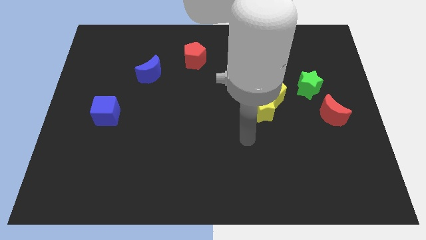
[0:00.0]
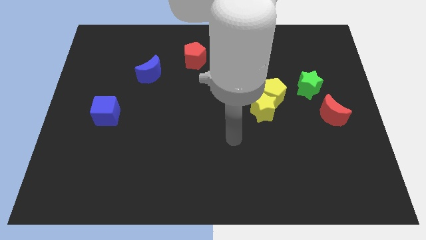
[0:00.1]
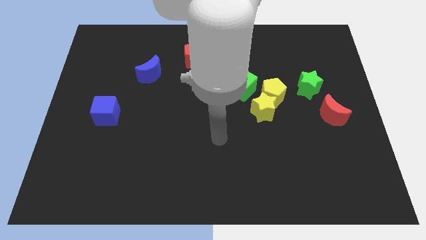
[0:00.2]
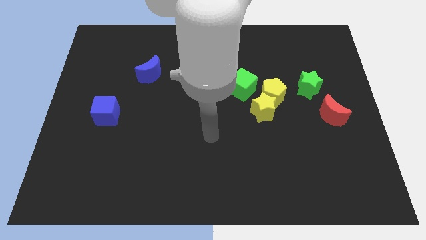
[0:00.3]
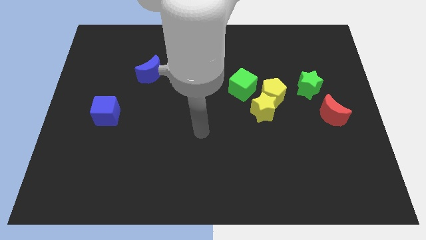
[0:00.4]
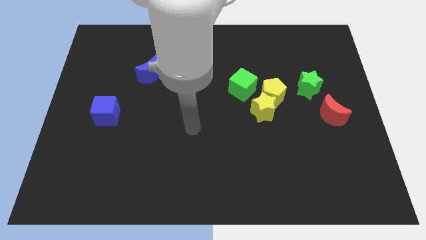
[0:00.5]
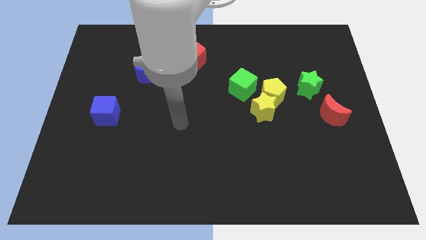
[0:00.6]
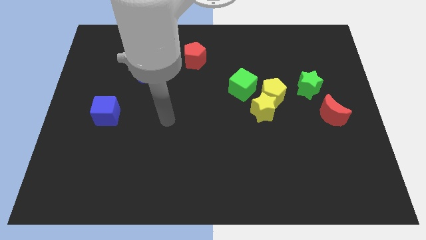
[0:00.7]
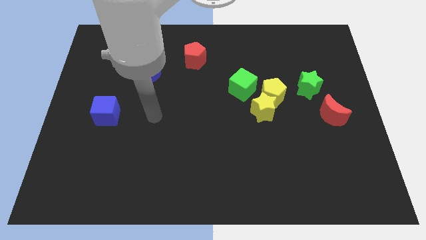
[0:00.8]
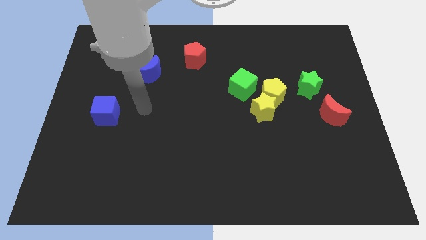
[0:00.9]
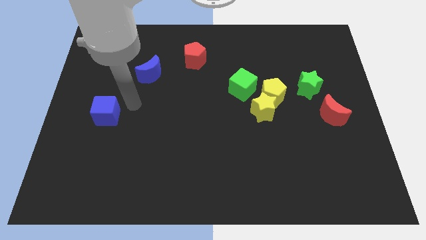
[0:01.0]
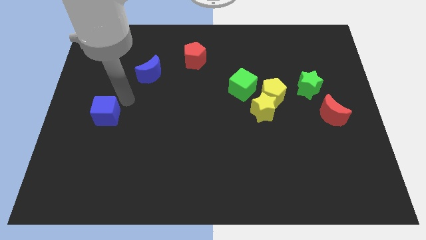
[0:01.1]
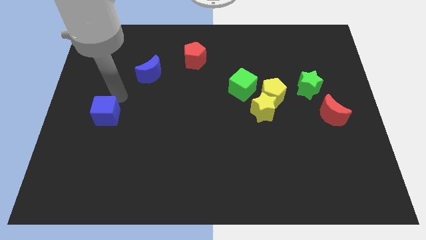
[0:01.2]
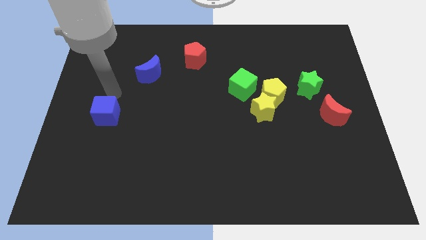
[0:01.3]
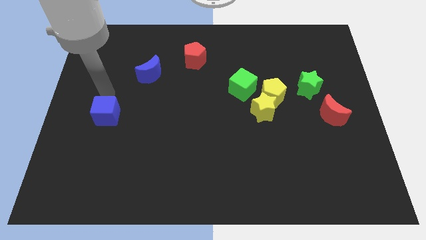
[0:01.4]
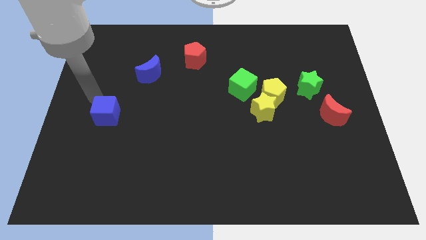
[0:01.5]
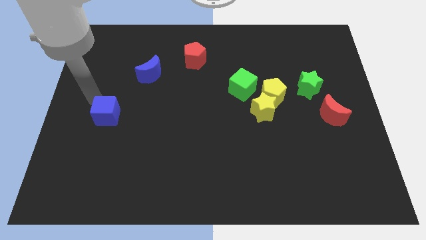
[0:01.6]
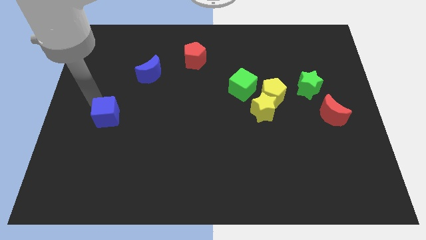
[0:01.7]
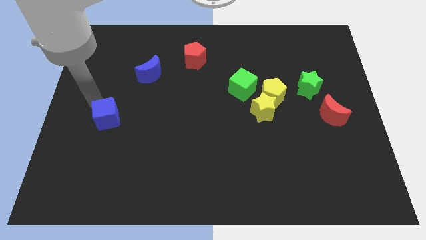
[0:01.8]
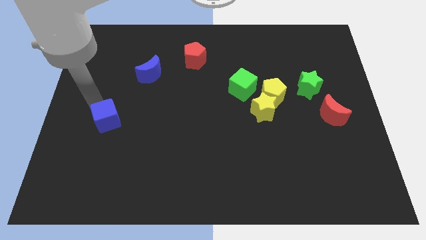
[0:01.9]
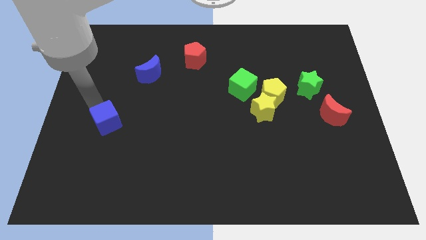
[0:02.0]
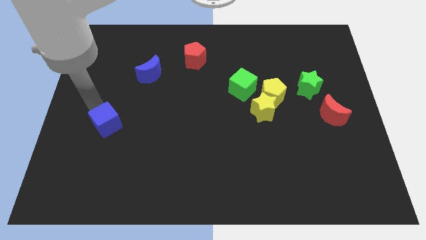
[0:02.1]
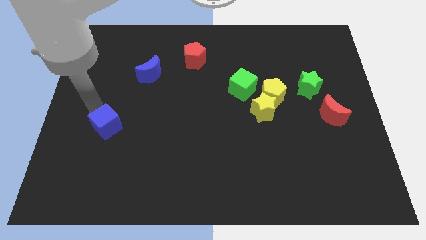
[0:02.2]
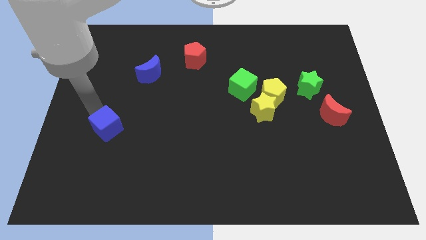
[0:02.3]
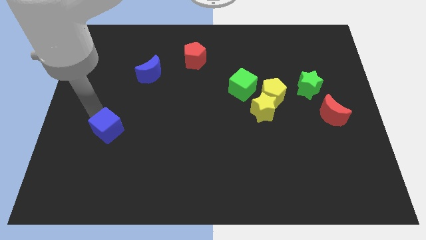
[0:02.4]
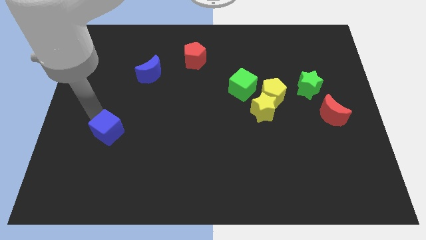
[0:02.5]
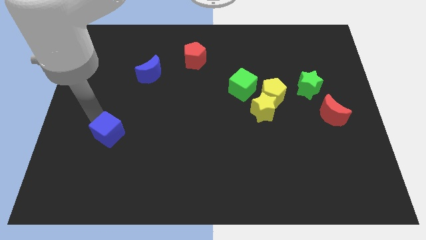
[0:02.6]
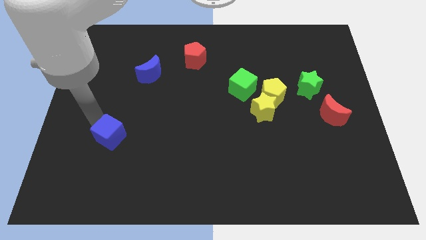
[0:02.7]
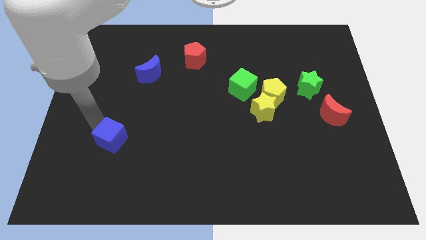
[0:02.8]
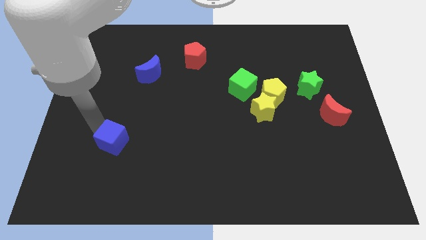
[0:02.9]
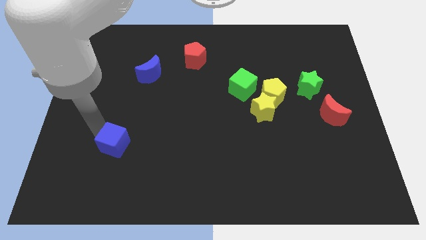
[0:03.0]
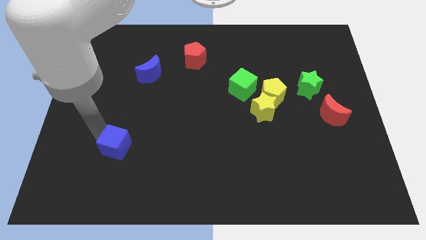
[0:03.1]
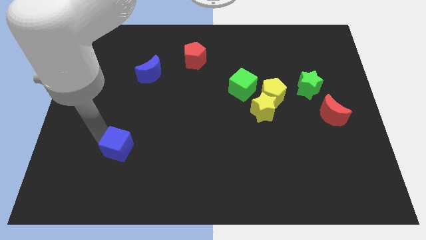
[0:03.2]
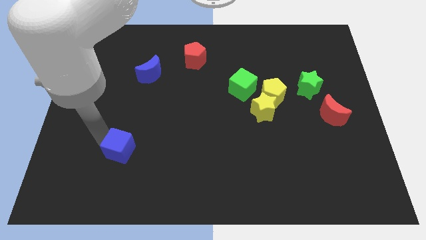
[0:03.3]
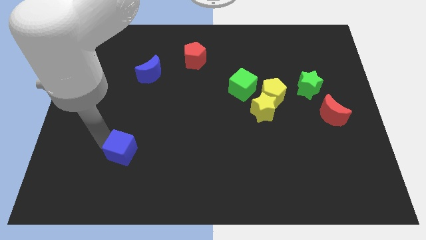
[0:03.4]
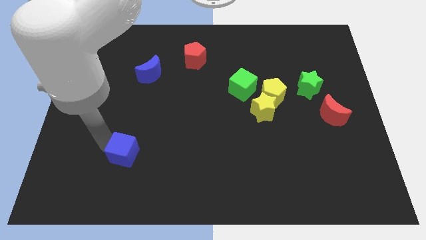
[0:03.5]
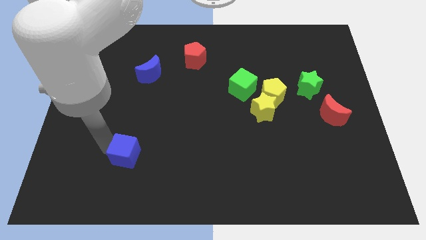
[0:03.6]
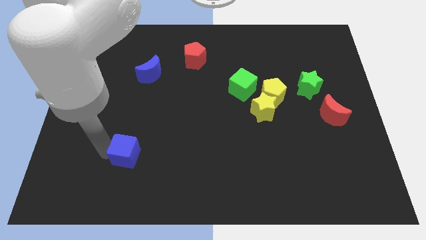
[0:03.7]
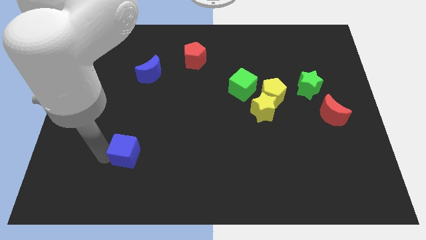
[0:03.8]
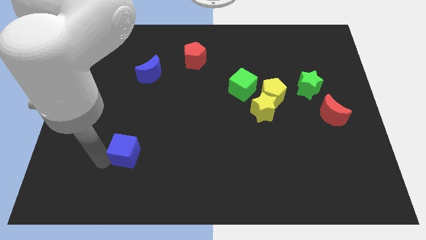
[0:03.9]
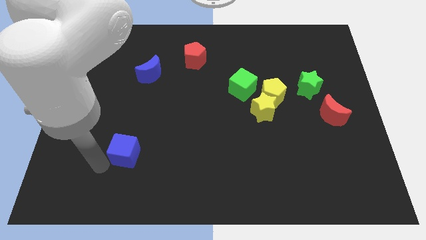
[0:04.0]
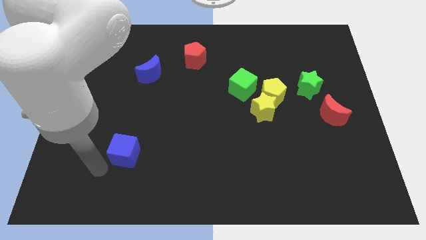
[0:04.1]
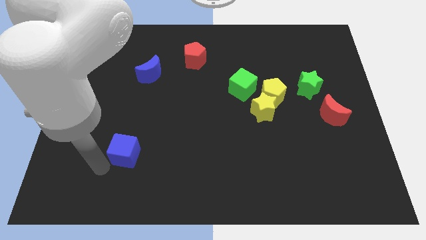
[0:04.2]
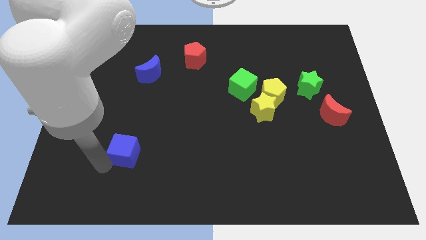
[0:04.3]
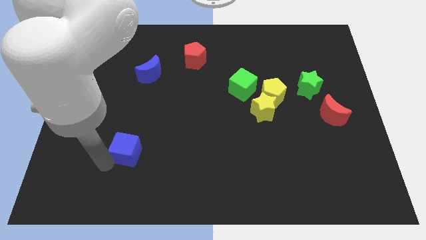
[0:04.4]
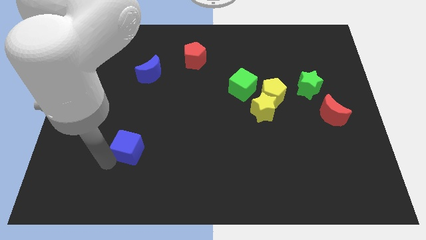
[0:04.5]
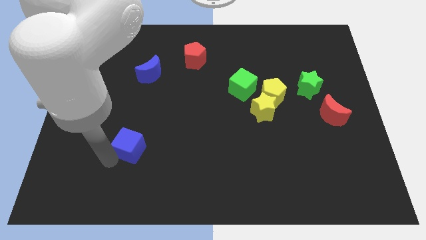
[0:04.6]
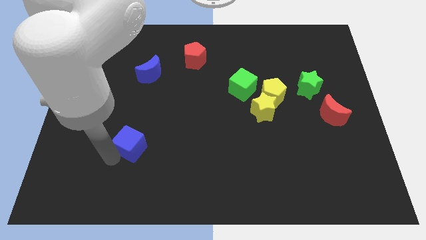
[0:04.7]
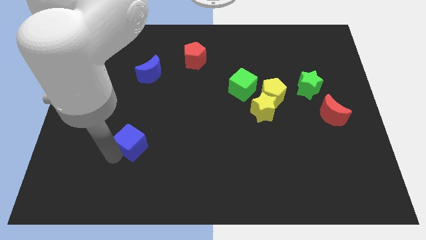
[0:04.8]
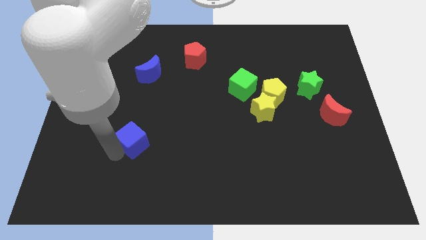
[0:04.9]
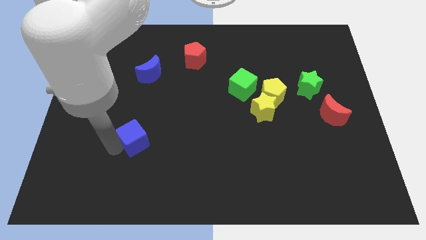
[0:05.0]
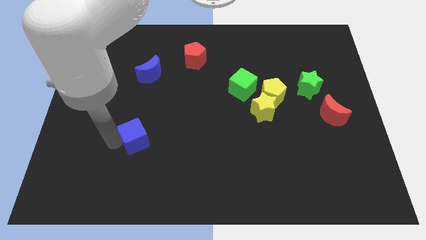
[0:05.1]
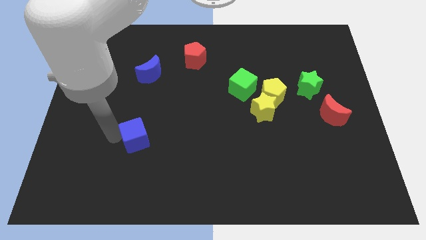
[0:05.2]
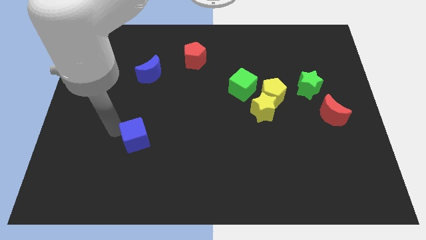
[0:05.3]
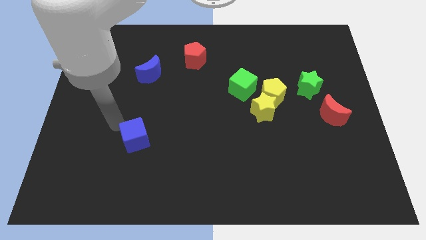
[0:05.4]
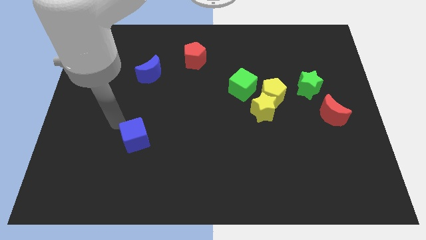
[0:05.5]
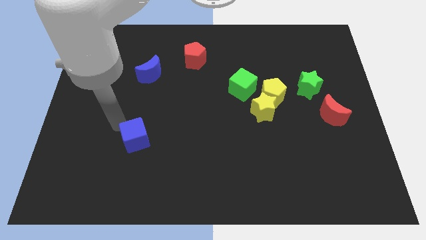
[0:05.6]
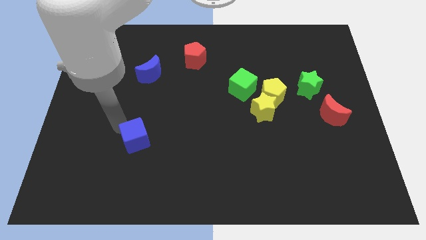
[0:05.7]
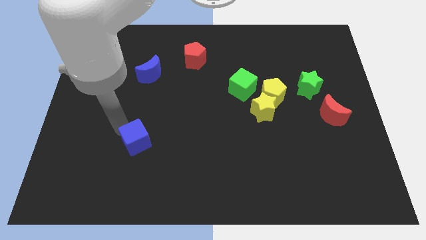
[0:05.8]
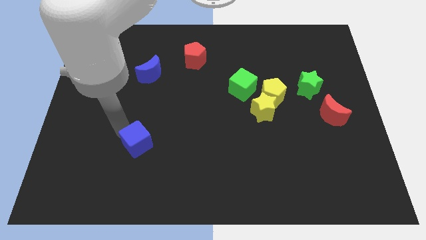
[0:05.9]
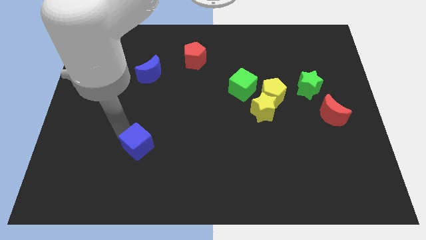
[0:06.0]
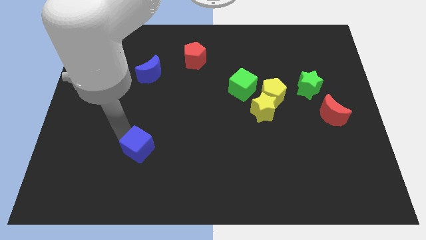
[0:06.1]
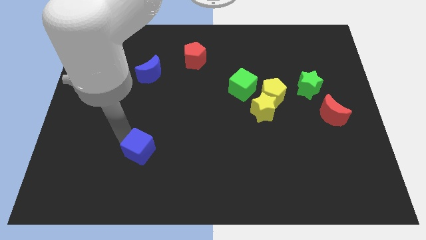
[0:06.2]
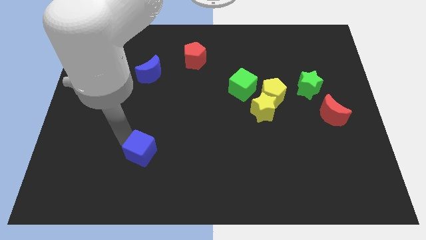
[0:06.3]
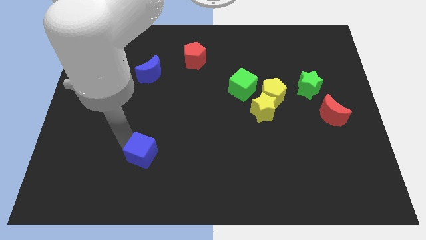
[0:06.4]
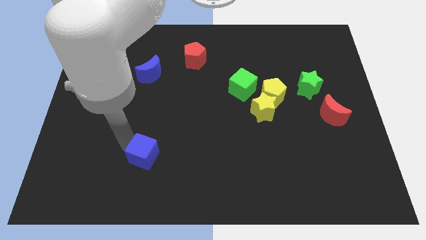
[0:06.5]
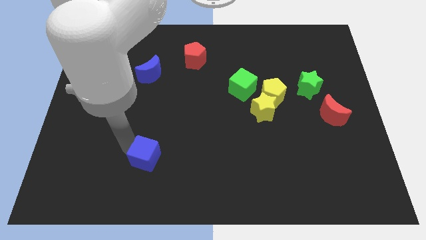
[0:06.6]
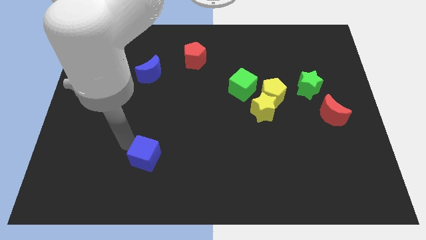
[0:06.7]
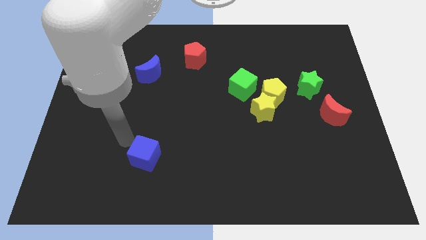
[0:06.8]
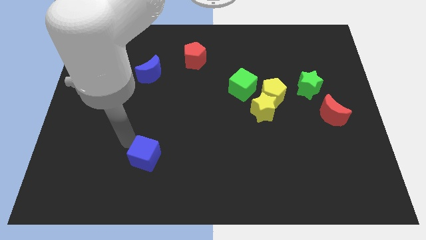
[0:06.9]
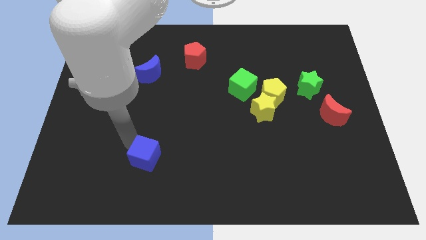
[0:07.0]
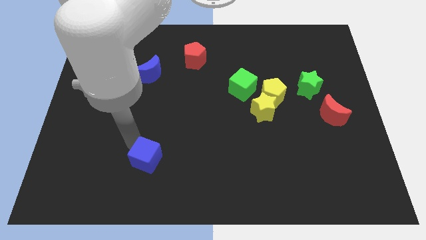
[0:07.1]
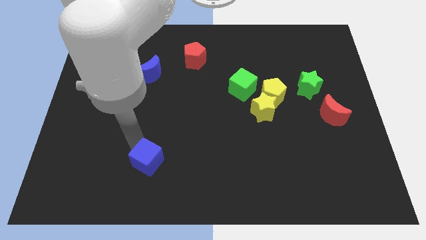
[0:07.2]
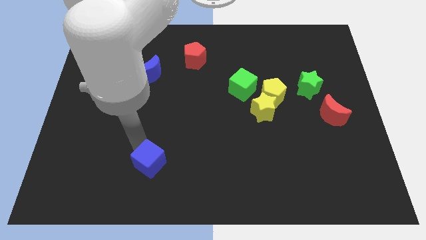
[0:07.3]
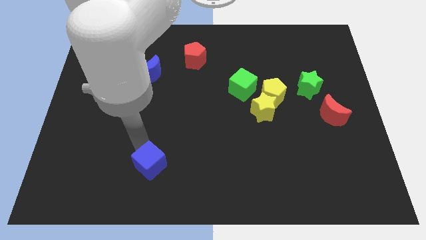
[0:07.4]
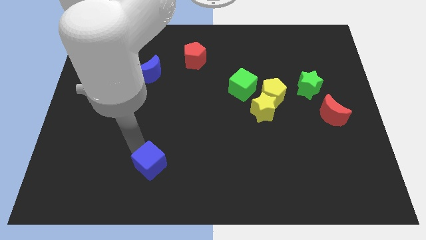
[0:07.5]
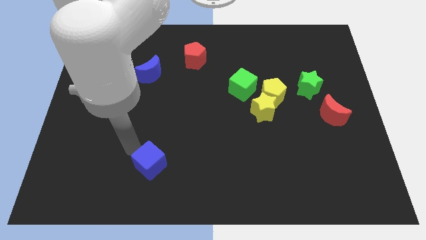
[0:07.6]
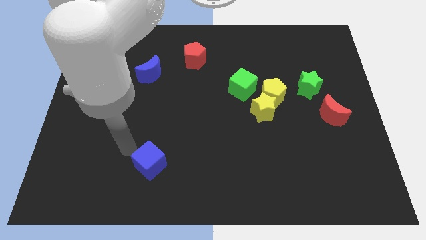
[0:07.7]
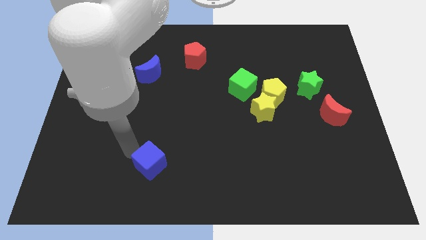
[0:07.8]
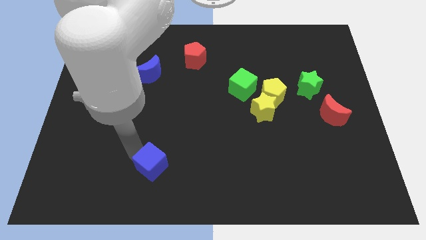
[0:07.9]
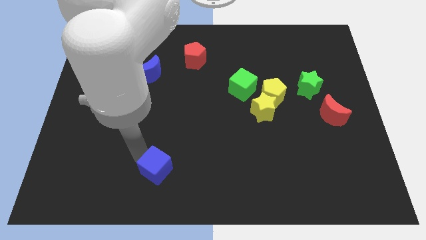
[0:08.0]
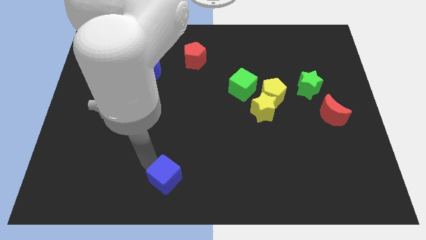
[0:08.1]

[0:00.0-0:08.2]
put the blue cube to the bottom side
